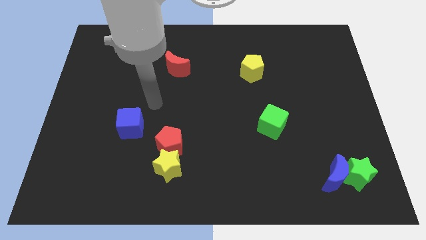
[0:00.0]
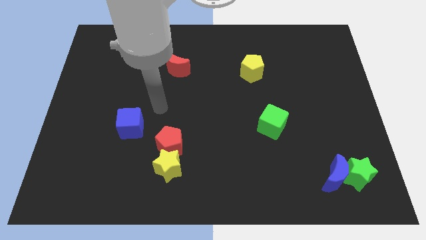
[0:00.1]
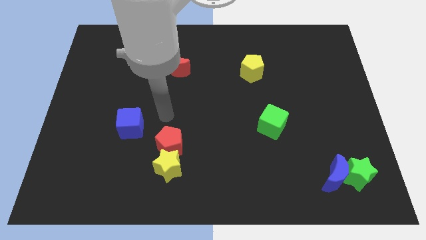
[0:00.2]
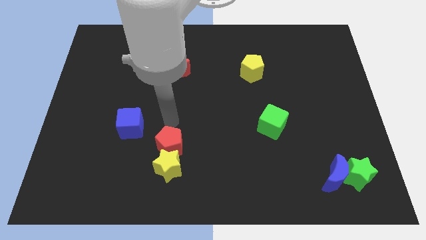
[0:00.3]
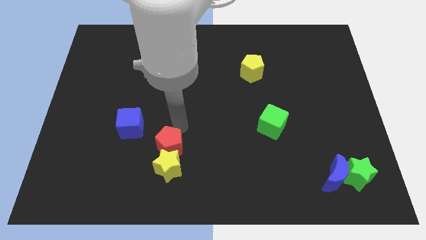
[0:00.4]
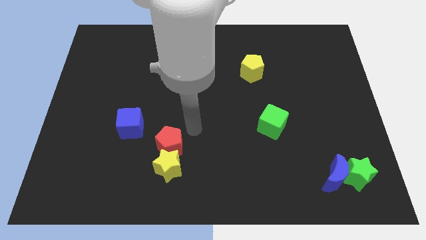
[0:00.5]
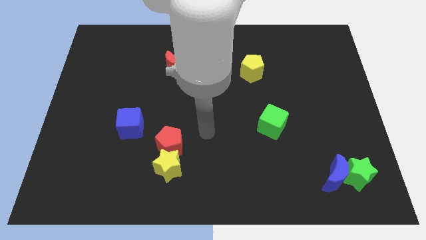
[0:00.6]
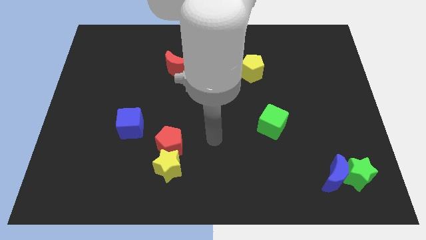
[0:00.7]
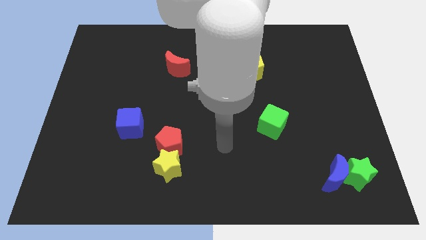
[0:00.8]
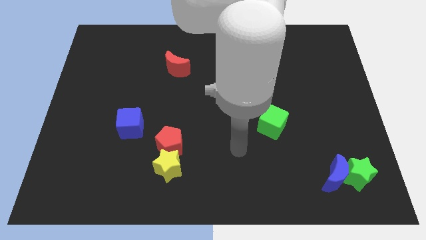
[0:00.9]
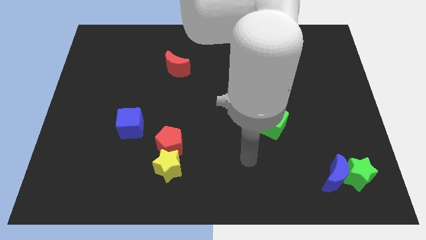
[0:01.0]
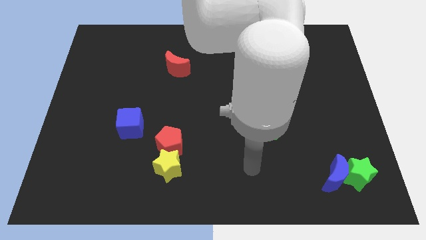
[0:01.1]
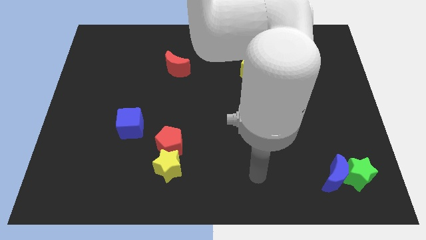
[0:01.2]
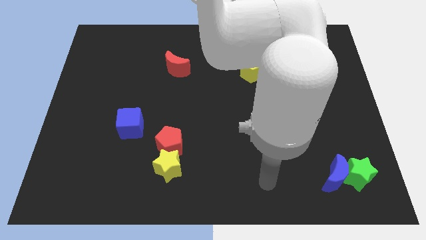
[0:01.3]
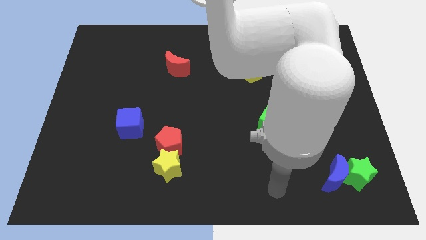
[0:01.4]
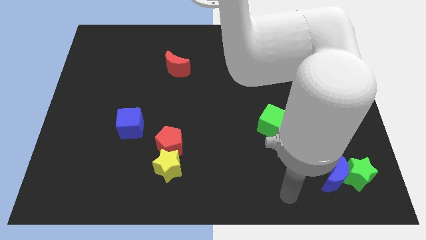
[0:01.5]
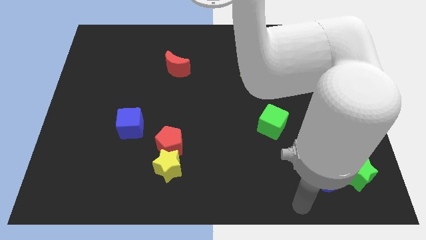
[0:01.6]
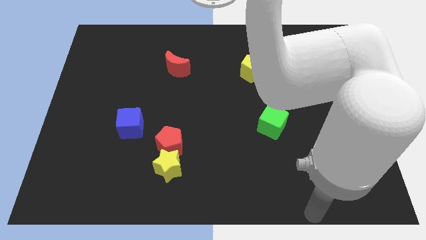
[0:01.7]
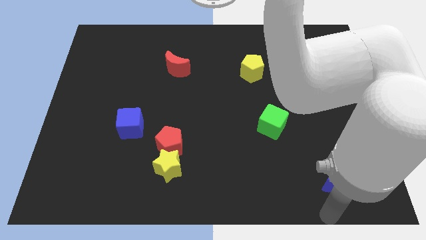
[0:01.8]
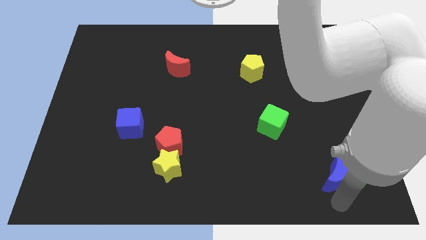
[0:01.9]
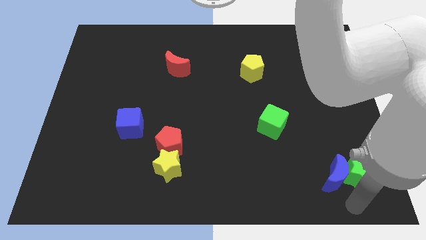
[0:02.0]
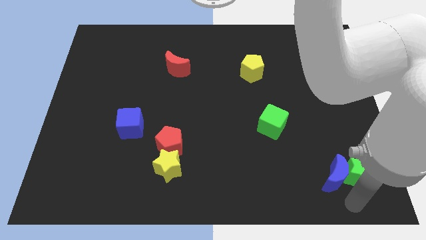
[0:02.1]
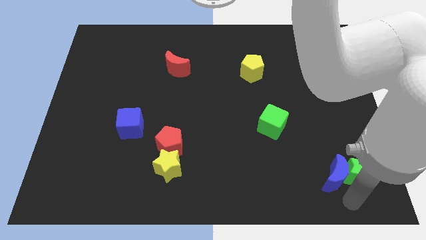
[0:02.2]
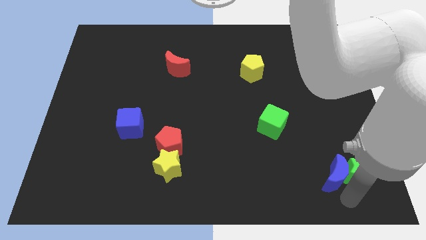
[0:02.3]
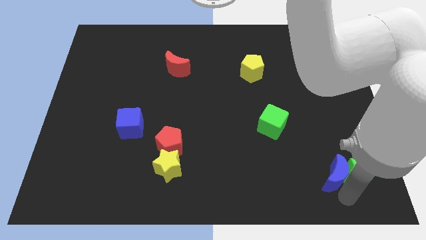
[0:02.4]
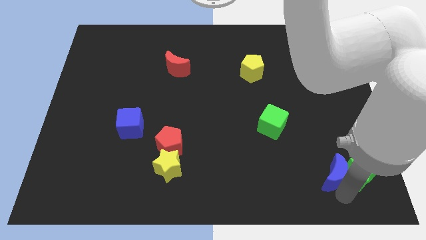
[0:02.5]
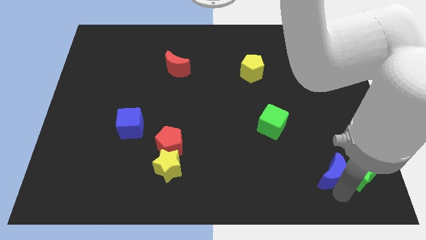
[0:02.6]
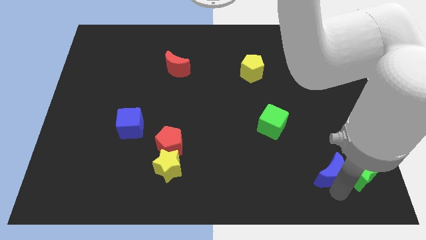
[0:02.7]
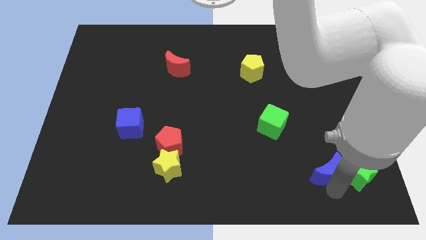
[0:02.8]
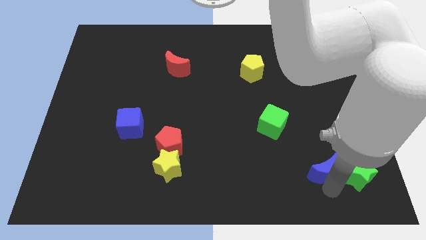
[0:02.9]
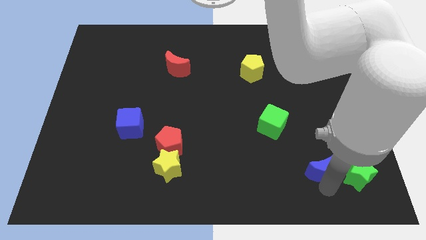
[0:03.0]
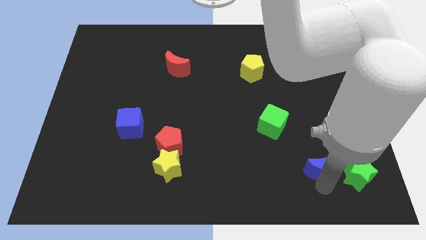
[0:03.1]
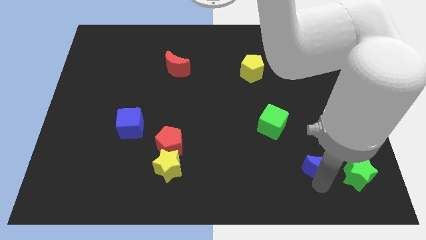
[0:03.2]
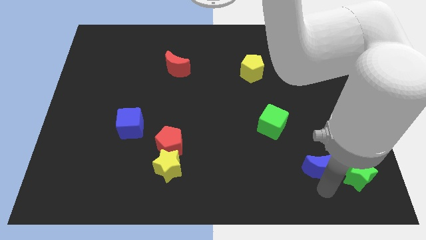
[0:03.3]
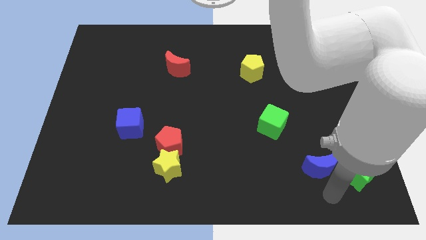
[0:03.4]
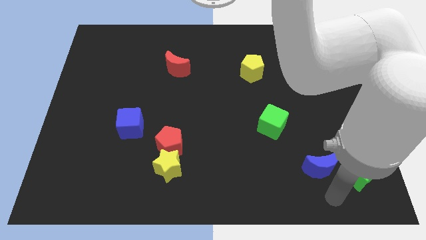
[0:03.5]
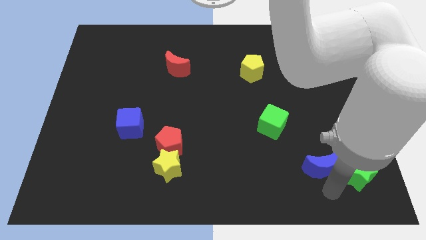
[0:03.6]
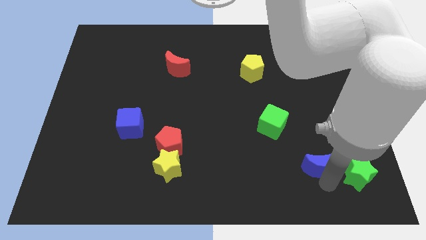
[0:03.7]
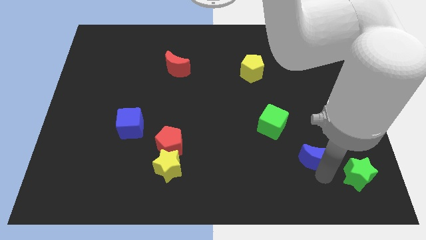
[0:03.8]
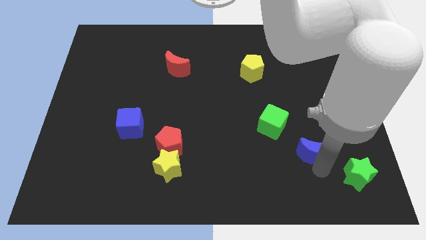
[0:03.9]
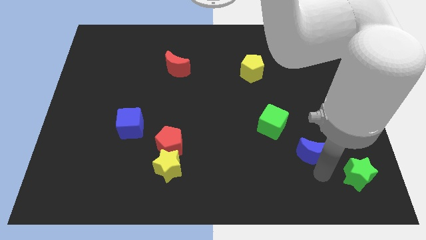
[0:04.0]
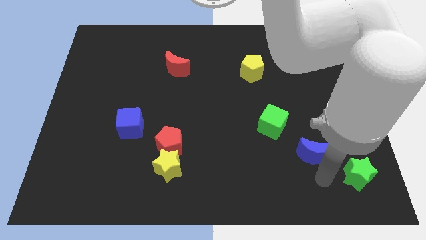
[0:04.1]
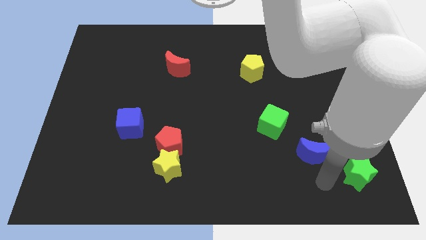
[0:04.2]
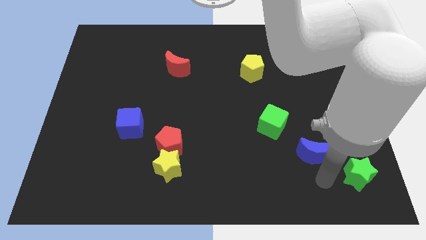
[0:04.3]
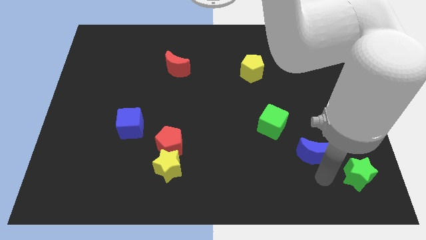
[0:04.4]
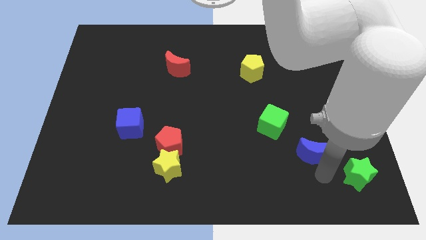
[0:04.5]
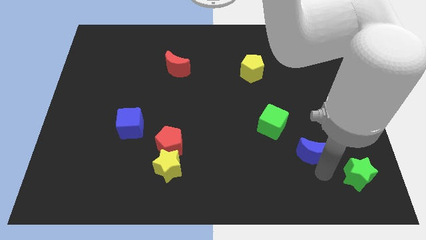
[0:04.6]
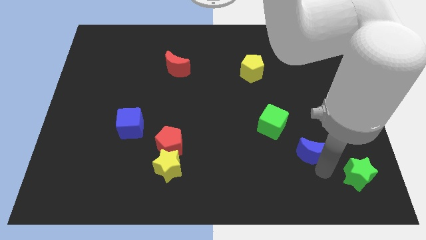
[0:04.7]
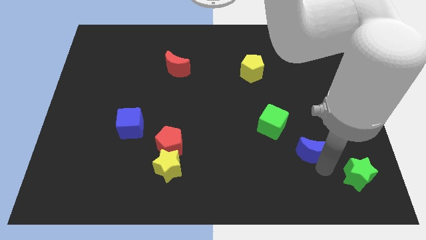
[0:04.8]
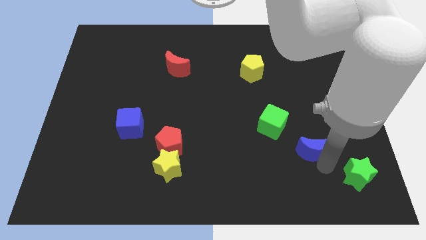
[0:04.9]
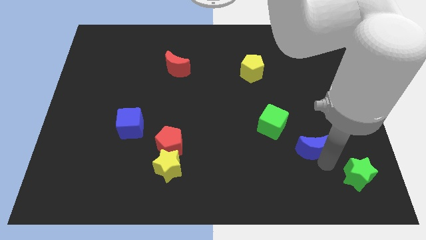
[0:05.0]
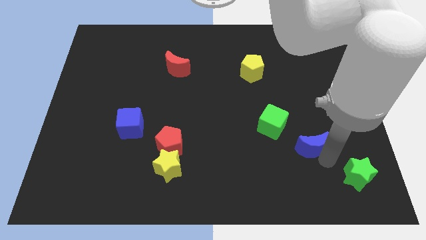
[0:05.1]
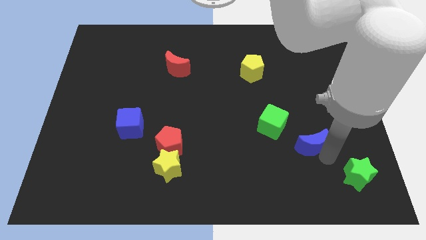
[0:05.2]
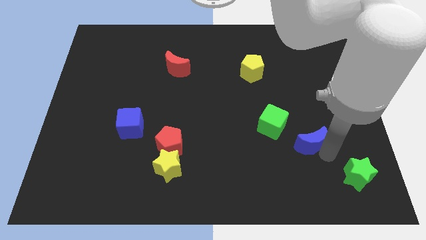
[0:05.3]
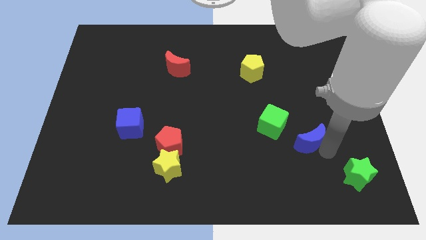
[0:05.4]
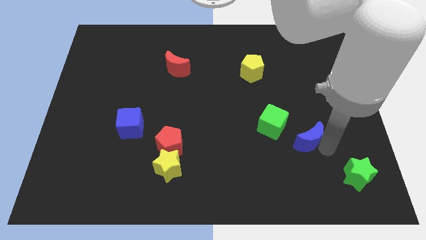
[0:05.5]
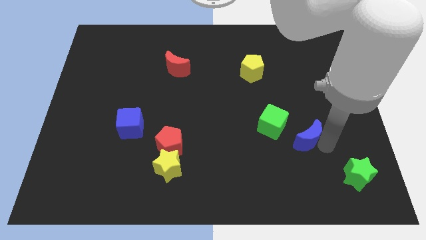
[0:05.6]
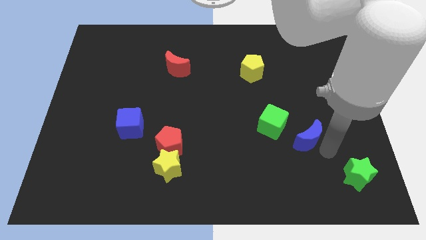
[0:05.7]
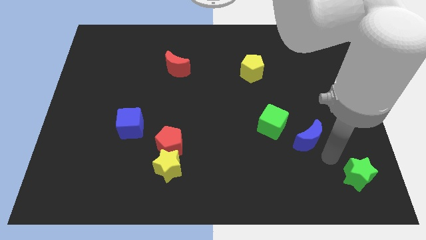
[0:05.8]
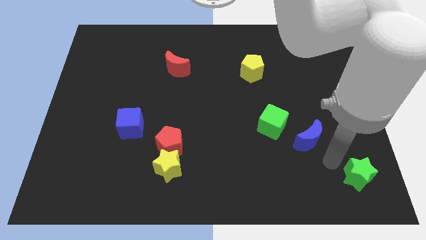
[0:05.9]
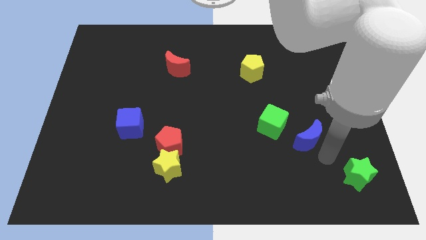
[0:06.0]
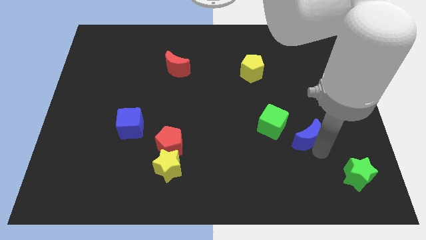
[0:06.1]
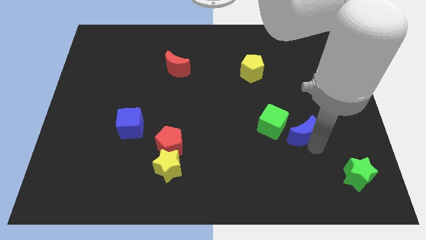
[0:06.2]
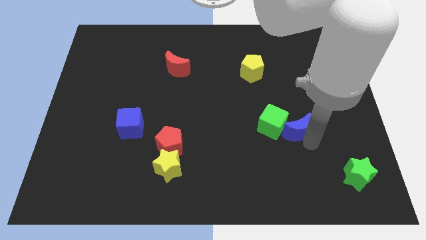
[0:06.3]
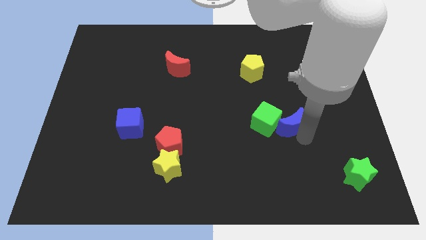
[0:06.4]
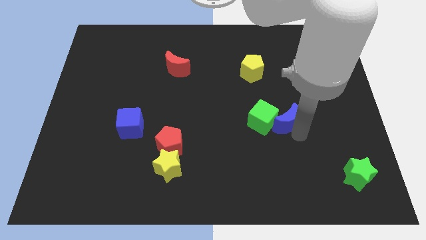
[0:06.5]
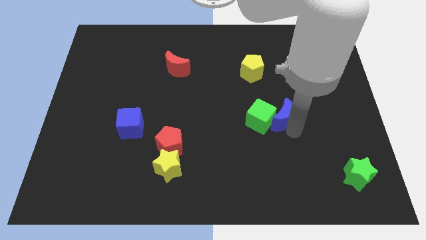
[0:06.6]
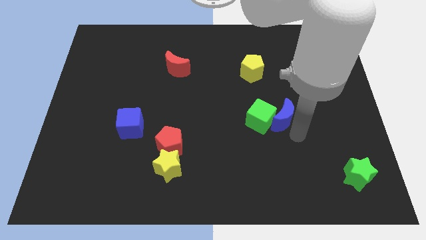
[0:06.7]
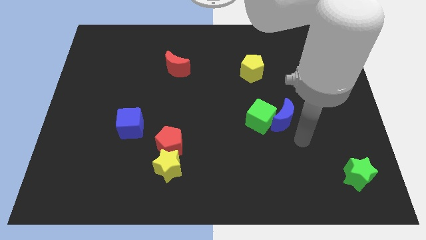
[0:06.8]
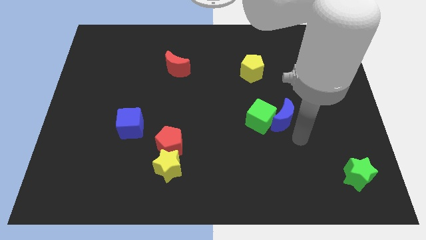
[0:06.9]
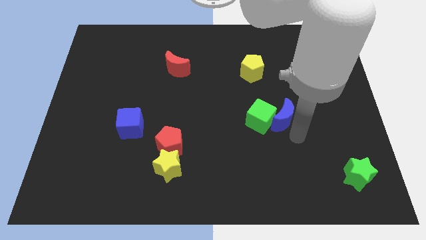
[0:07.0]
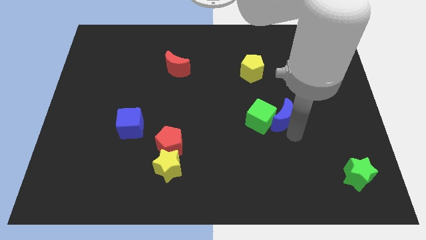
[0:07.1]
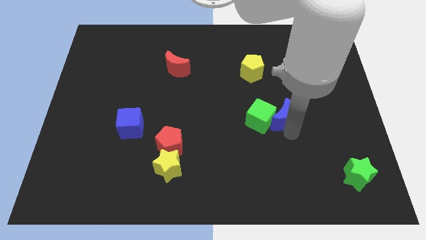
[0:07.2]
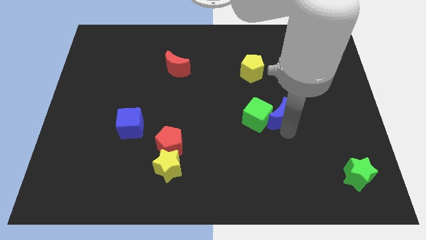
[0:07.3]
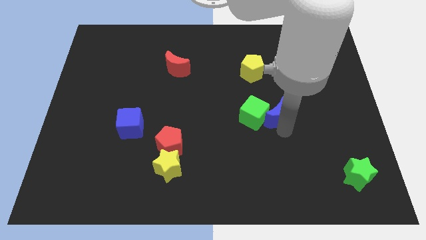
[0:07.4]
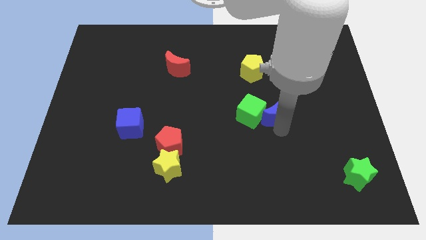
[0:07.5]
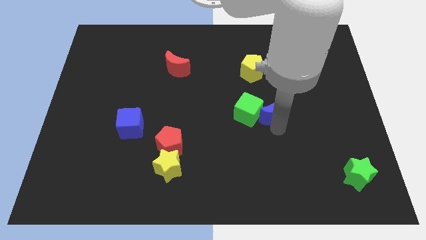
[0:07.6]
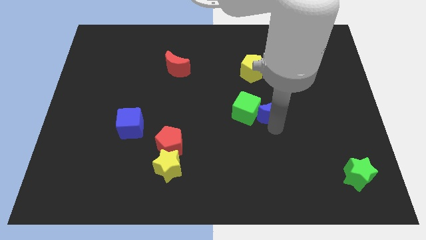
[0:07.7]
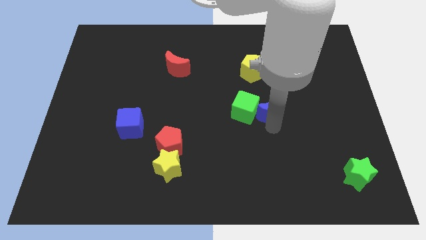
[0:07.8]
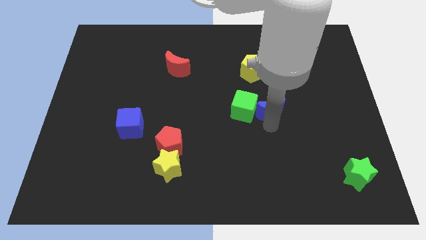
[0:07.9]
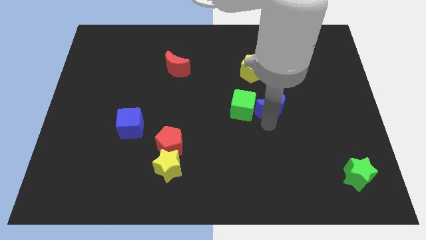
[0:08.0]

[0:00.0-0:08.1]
push the blue moon up and to the left diagonally

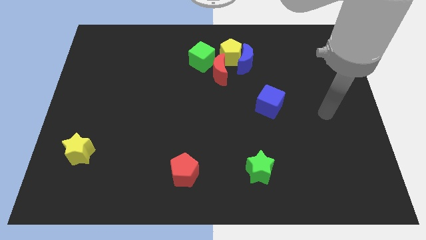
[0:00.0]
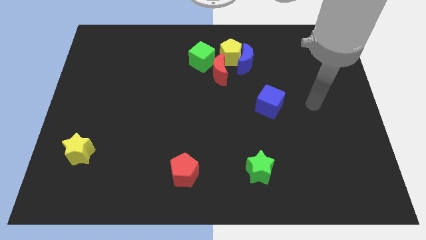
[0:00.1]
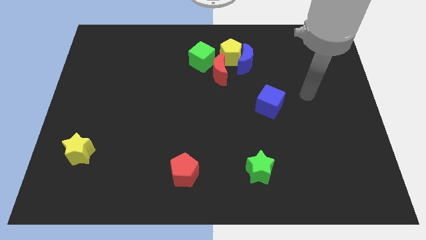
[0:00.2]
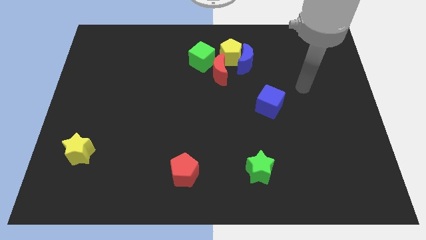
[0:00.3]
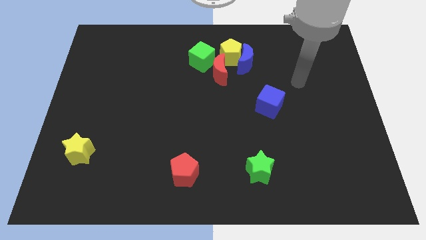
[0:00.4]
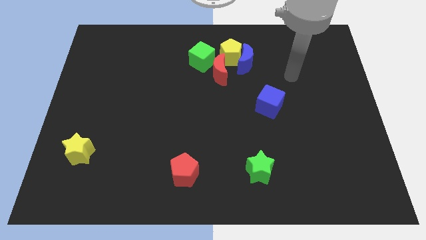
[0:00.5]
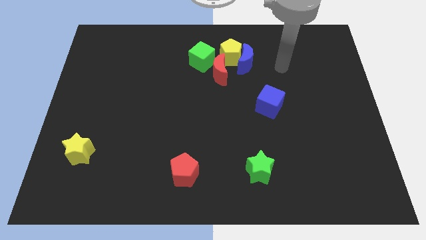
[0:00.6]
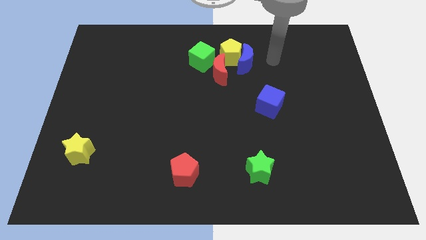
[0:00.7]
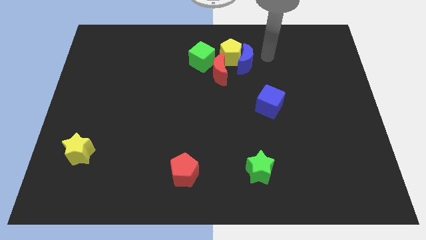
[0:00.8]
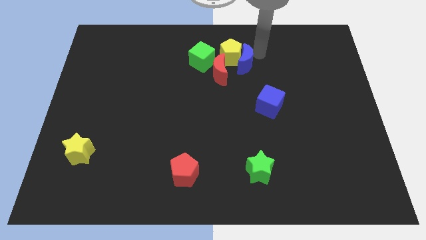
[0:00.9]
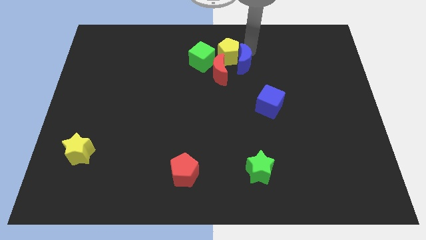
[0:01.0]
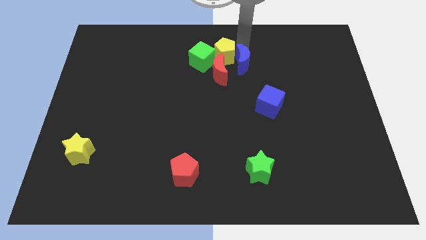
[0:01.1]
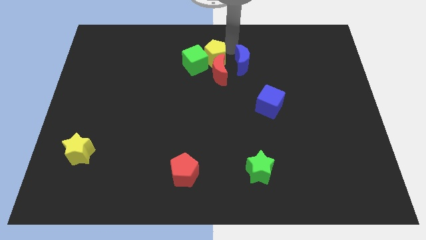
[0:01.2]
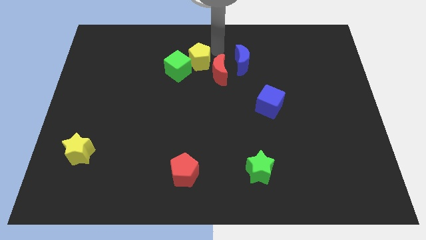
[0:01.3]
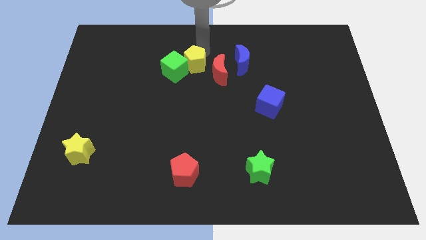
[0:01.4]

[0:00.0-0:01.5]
slightly slide the green cube downwards and then to the left
